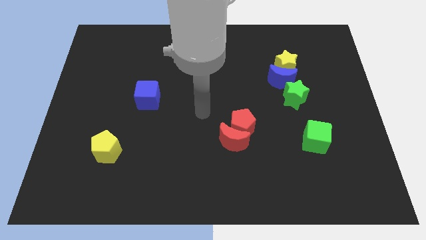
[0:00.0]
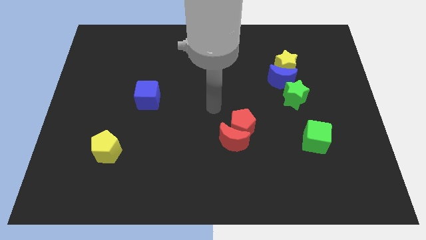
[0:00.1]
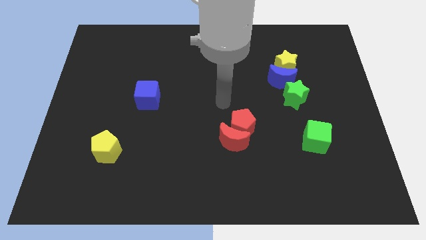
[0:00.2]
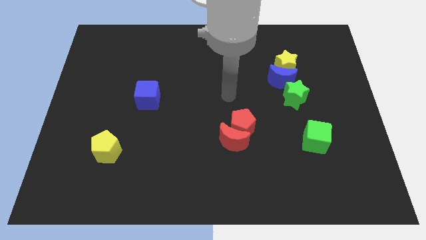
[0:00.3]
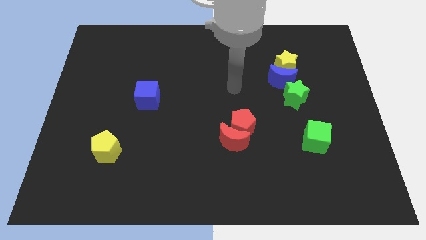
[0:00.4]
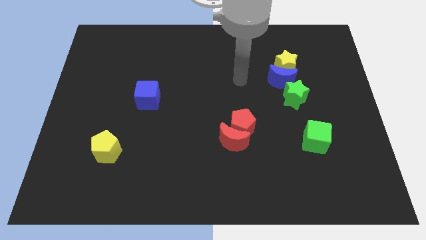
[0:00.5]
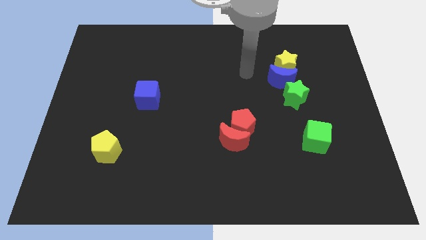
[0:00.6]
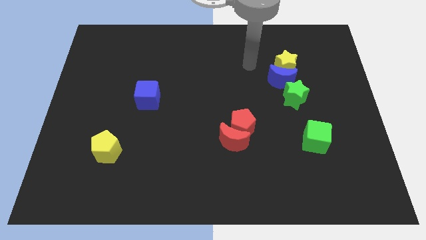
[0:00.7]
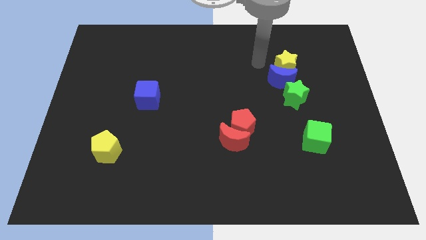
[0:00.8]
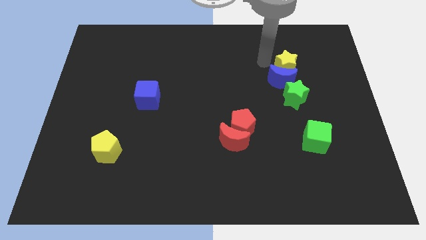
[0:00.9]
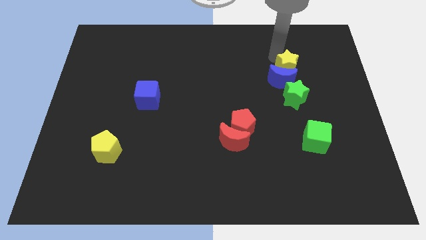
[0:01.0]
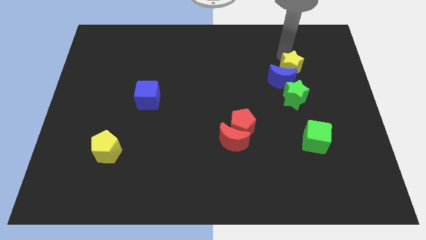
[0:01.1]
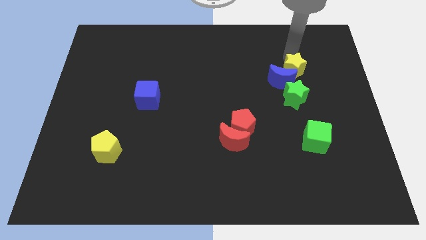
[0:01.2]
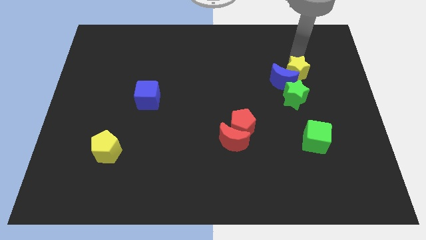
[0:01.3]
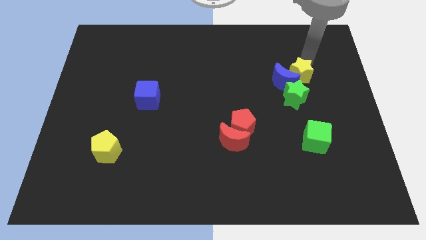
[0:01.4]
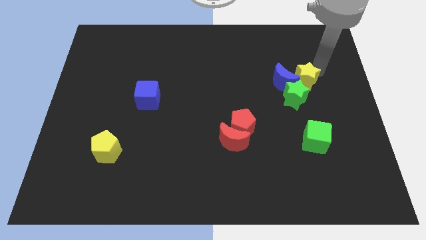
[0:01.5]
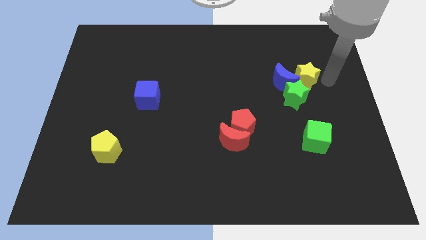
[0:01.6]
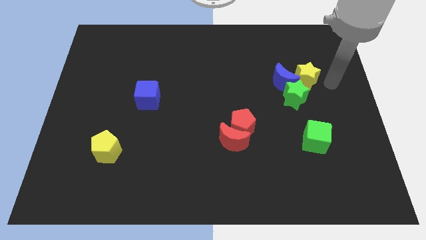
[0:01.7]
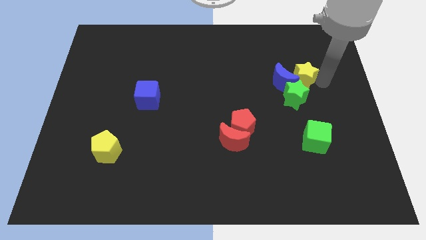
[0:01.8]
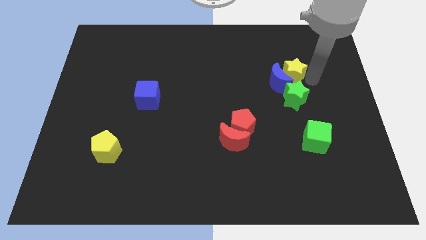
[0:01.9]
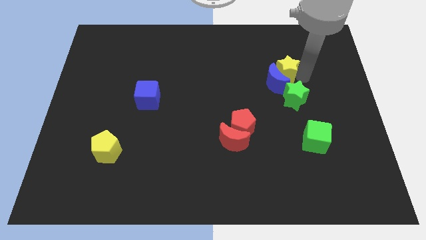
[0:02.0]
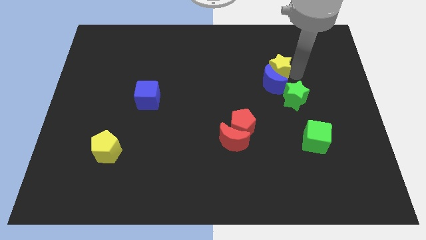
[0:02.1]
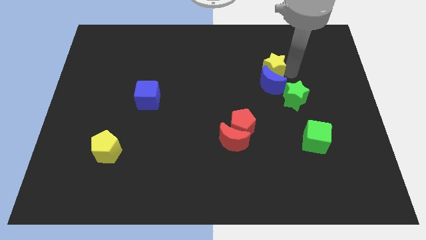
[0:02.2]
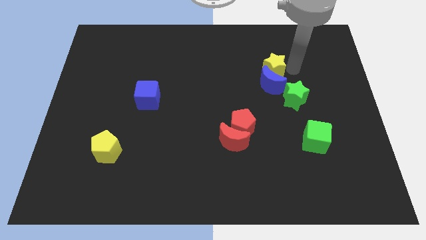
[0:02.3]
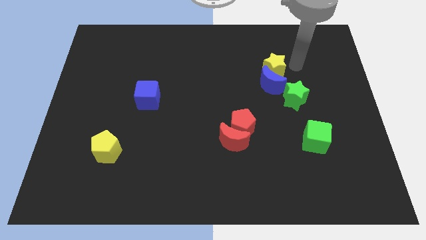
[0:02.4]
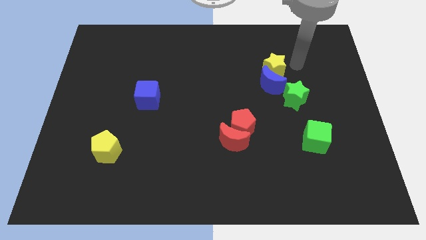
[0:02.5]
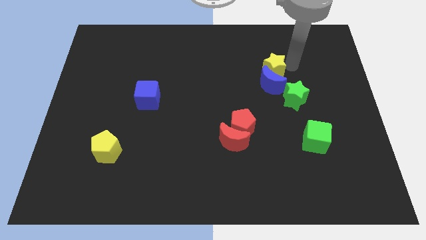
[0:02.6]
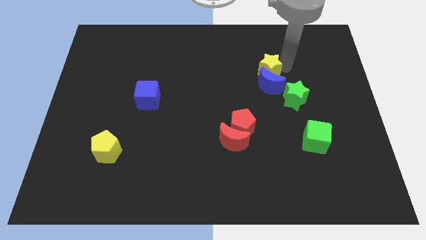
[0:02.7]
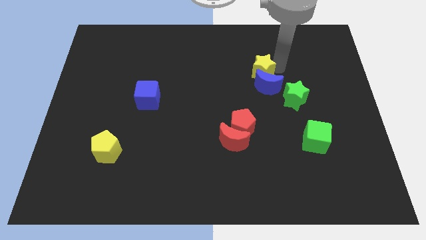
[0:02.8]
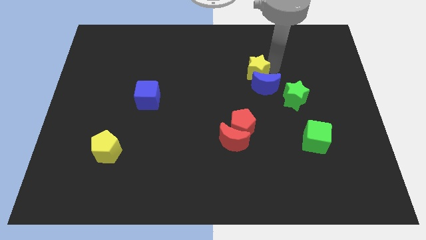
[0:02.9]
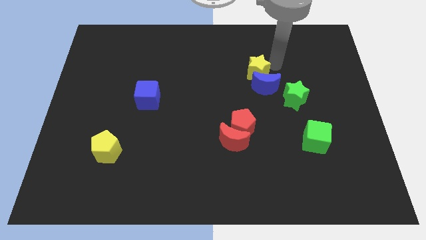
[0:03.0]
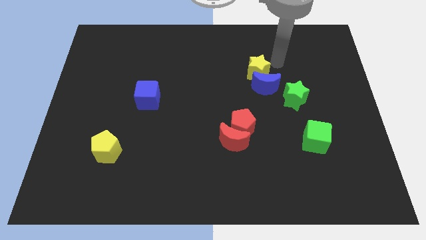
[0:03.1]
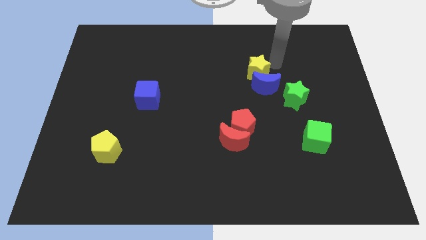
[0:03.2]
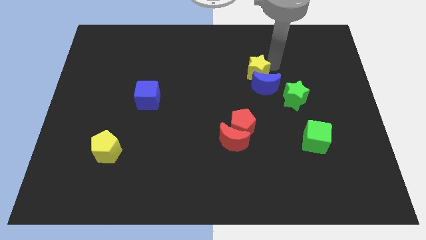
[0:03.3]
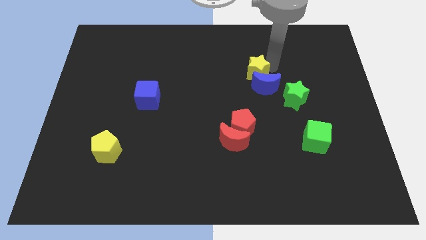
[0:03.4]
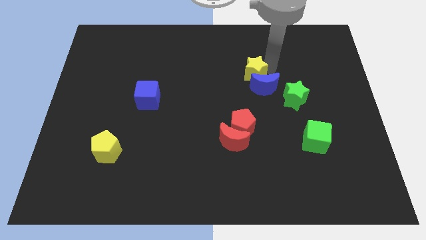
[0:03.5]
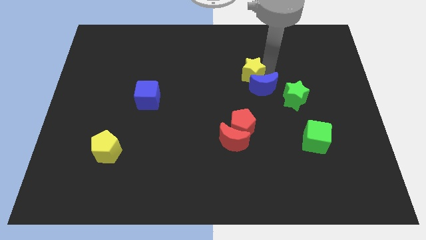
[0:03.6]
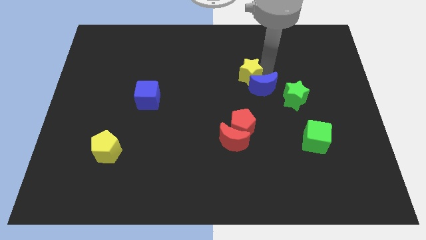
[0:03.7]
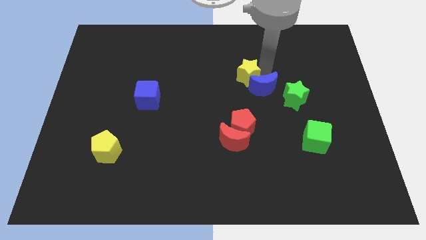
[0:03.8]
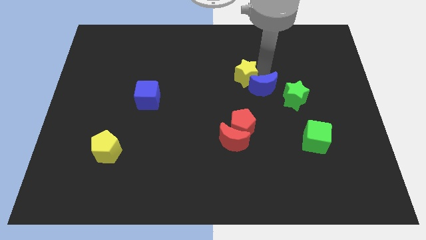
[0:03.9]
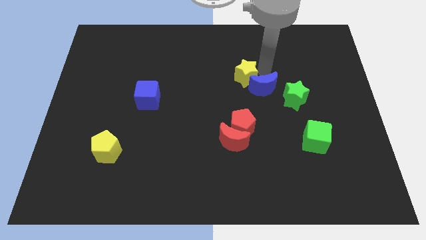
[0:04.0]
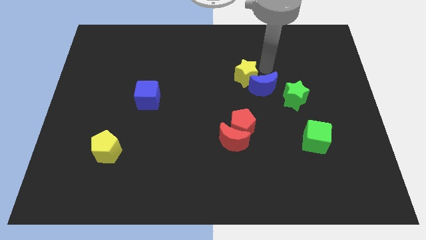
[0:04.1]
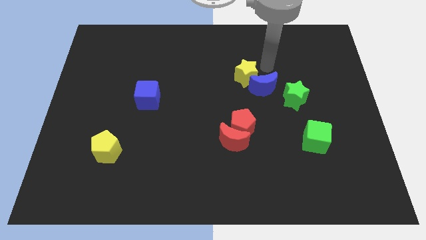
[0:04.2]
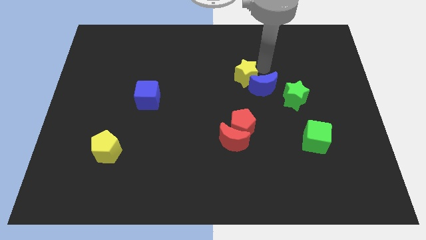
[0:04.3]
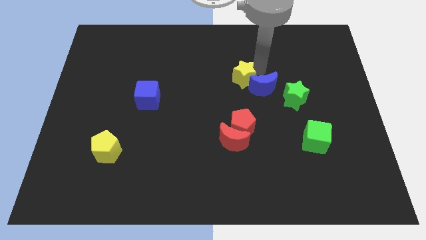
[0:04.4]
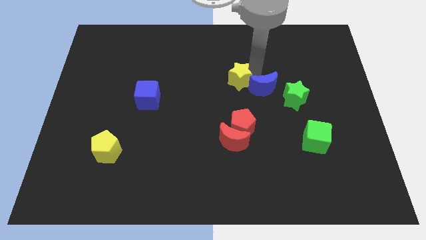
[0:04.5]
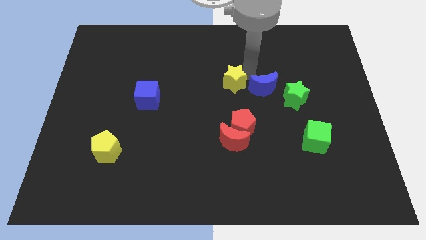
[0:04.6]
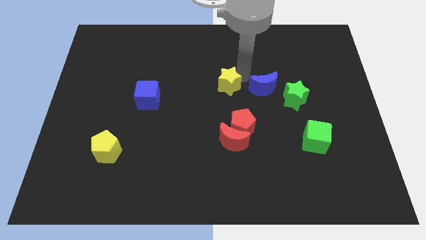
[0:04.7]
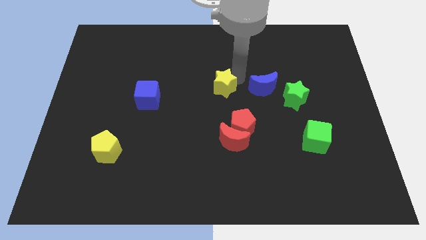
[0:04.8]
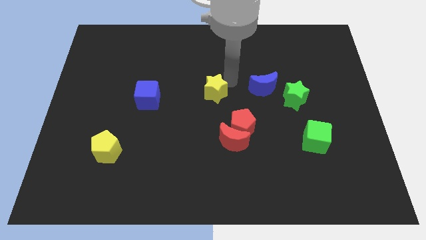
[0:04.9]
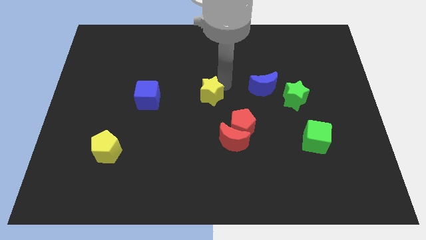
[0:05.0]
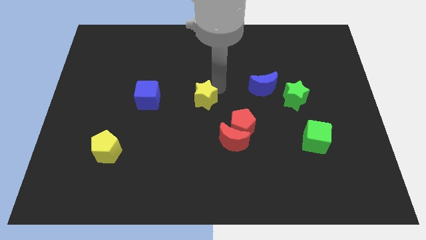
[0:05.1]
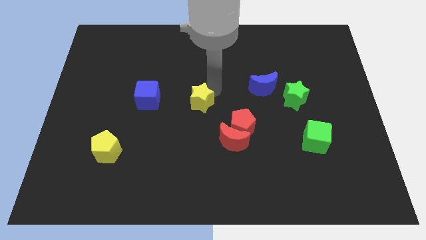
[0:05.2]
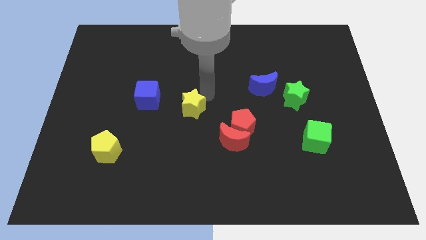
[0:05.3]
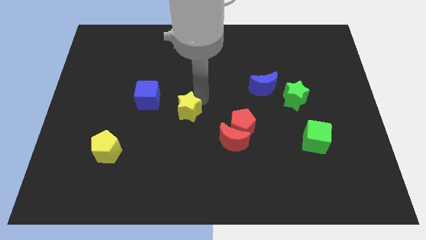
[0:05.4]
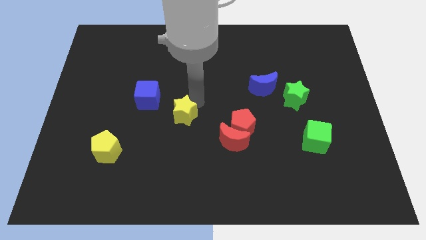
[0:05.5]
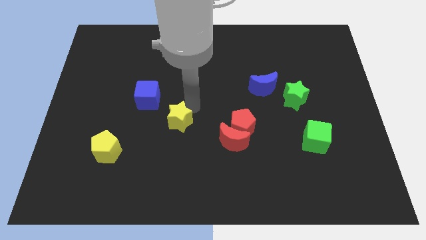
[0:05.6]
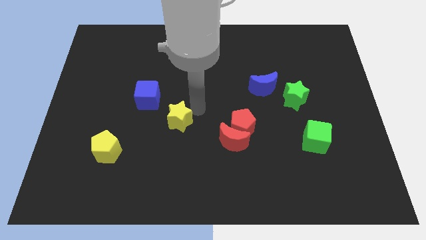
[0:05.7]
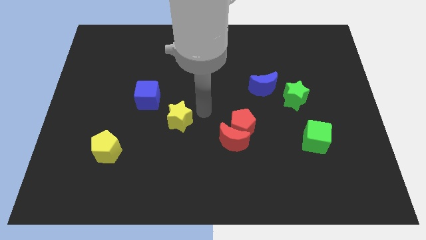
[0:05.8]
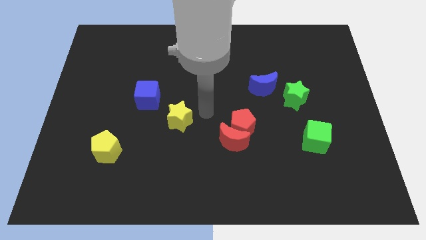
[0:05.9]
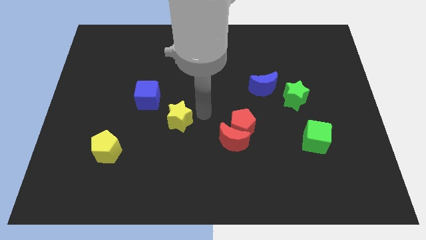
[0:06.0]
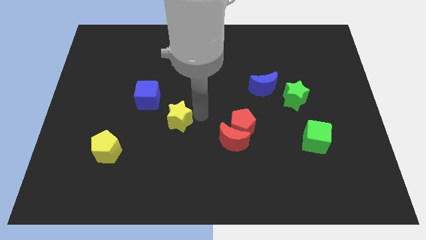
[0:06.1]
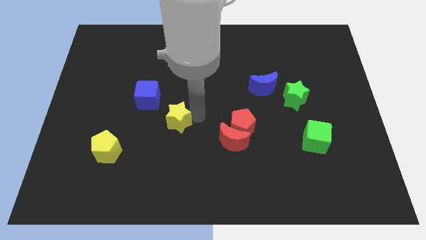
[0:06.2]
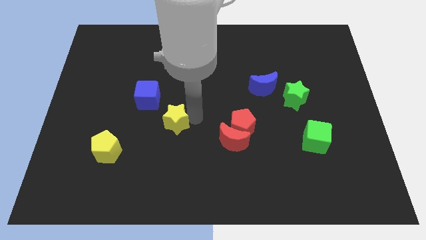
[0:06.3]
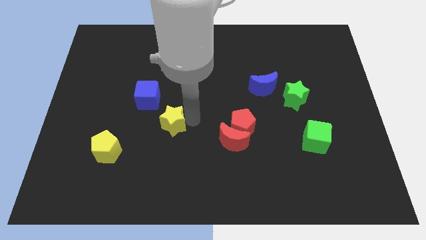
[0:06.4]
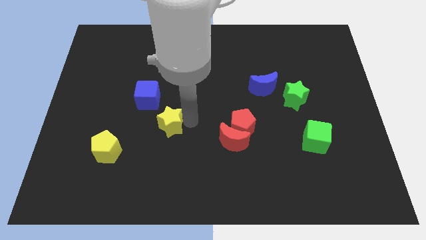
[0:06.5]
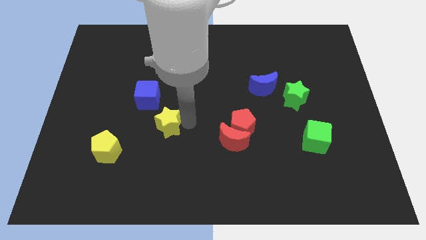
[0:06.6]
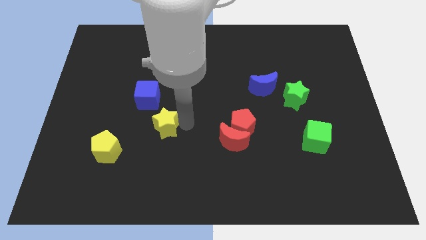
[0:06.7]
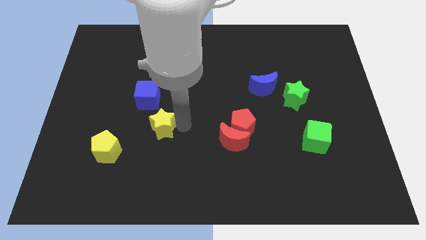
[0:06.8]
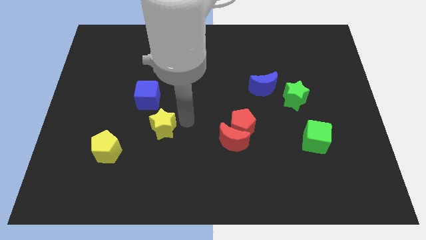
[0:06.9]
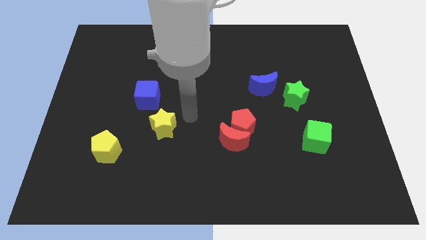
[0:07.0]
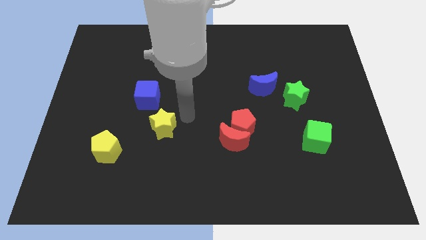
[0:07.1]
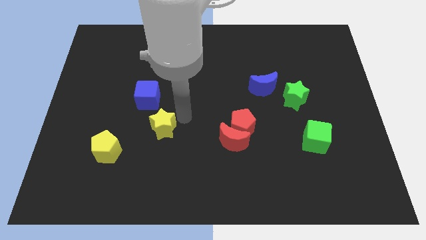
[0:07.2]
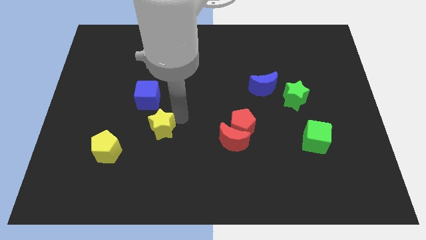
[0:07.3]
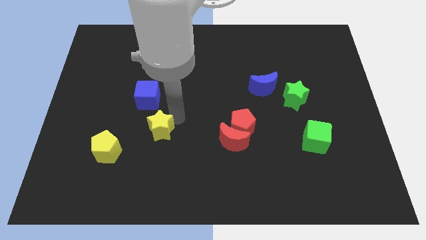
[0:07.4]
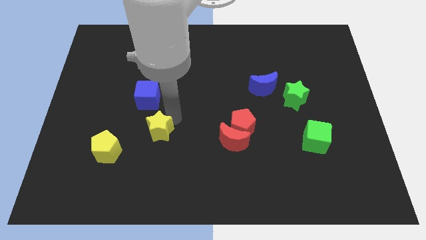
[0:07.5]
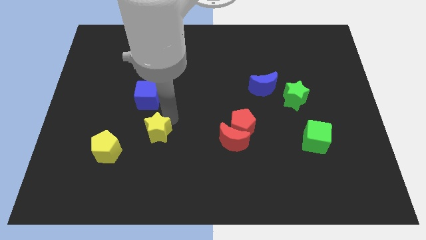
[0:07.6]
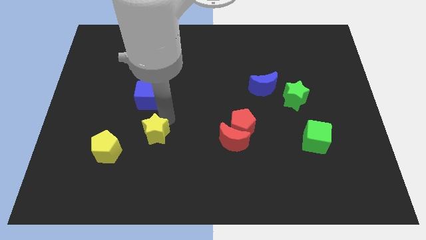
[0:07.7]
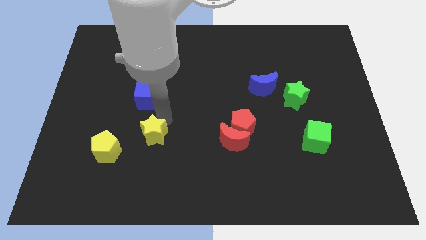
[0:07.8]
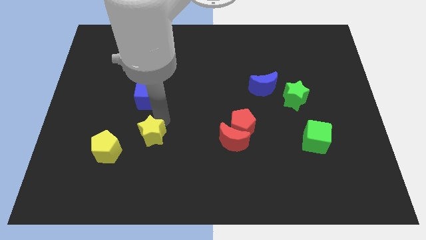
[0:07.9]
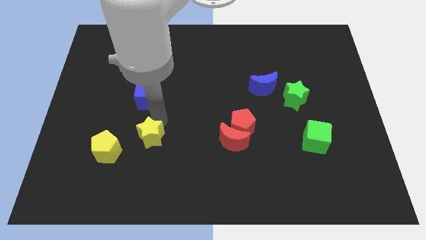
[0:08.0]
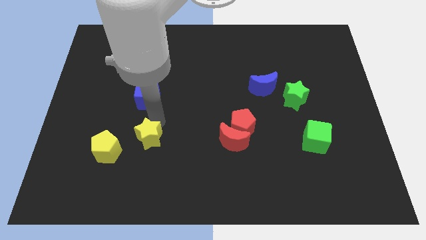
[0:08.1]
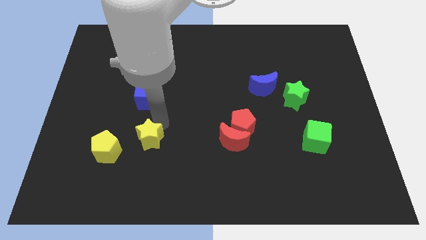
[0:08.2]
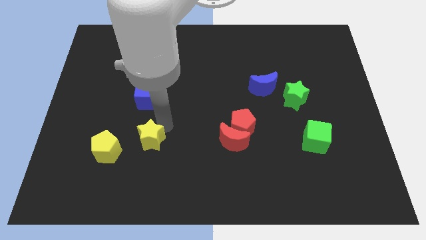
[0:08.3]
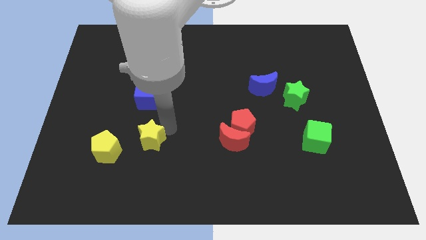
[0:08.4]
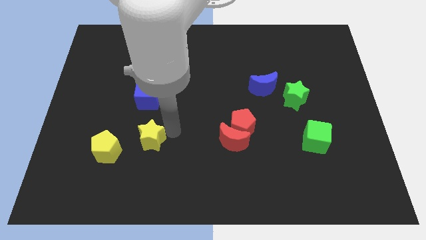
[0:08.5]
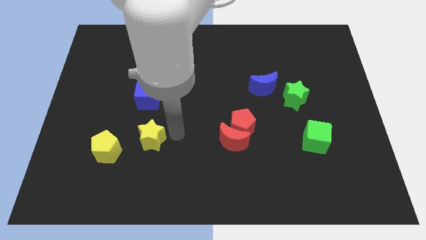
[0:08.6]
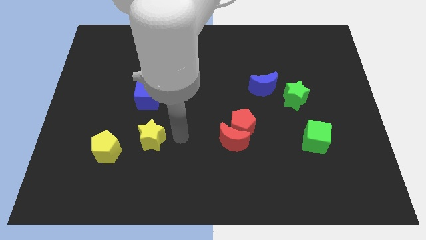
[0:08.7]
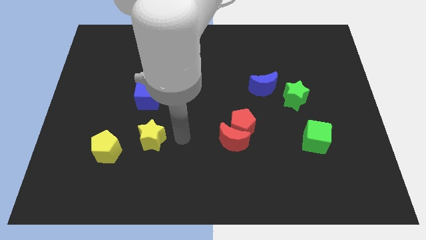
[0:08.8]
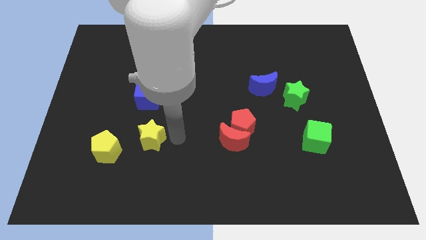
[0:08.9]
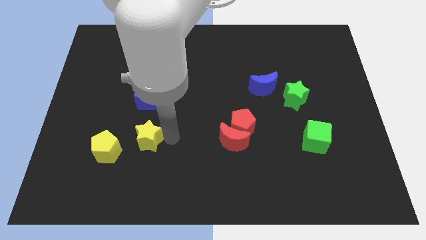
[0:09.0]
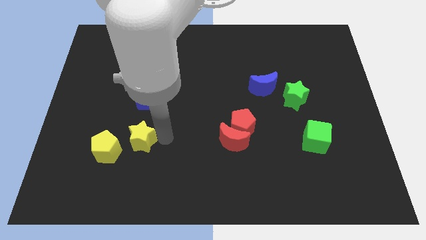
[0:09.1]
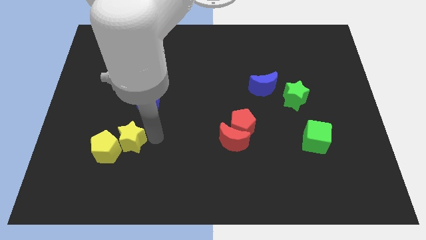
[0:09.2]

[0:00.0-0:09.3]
push the yellow star towards the yellow pentagon
